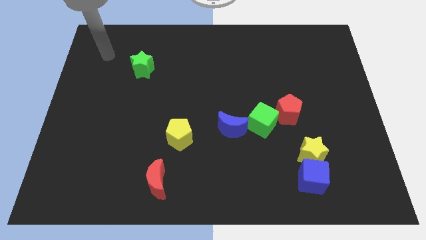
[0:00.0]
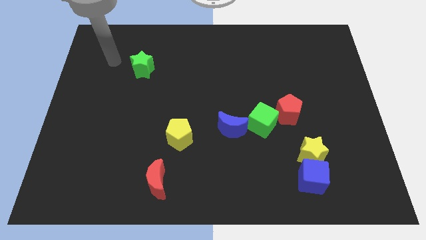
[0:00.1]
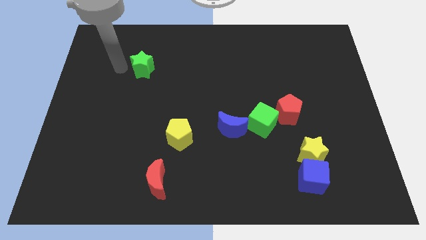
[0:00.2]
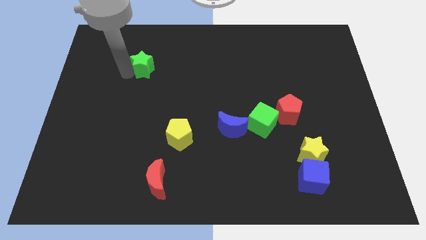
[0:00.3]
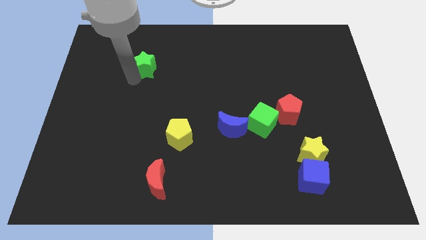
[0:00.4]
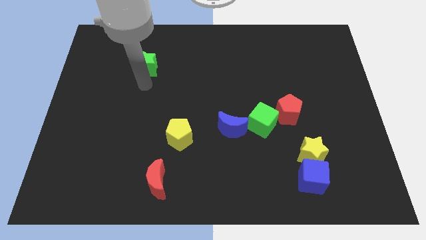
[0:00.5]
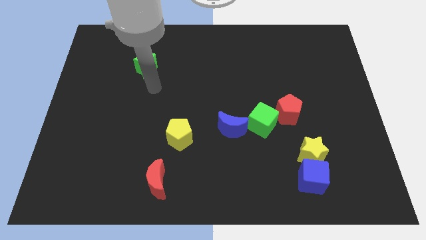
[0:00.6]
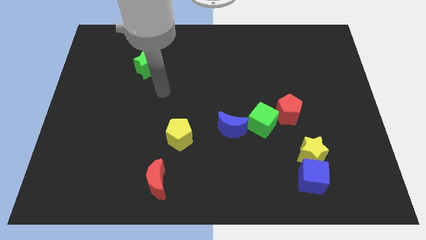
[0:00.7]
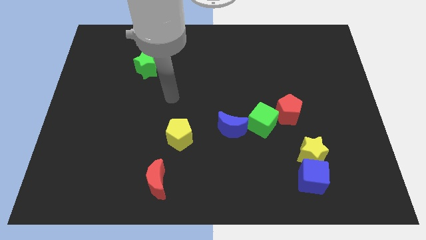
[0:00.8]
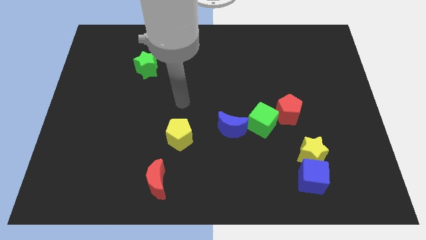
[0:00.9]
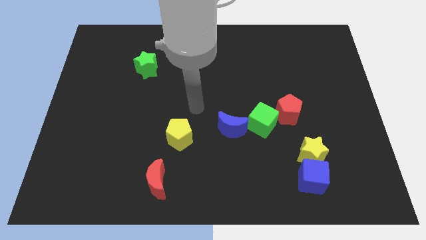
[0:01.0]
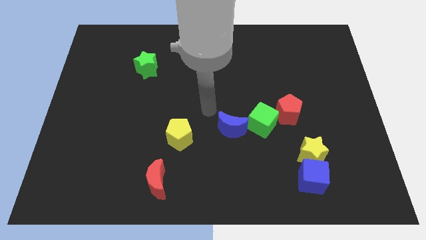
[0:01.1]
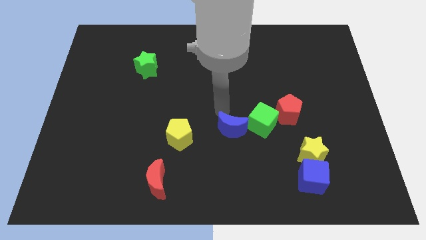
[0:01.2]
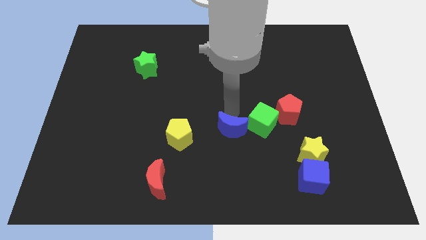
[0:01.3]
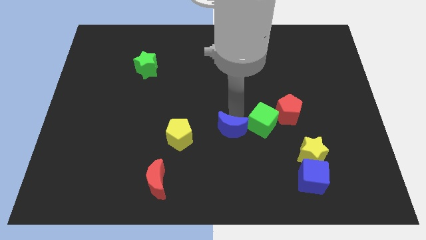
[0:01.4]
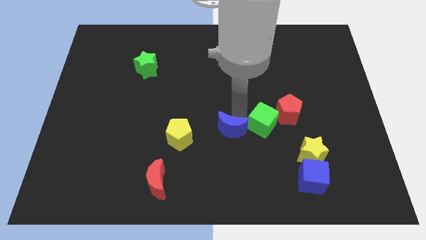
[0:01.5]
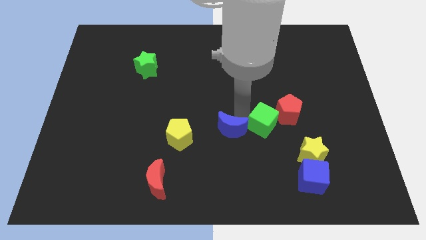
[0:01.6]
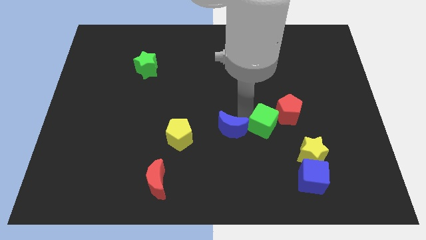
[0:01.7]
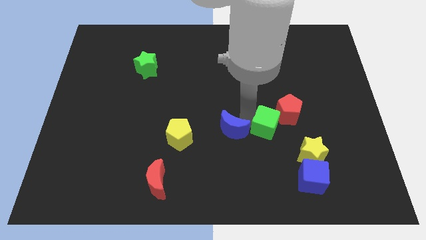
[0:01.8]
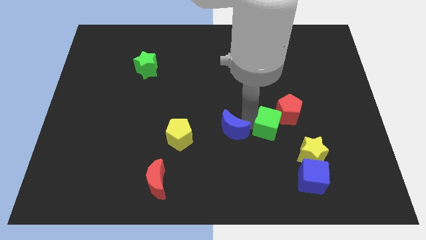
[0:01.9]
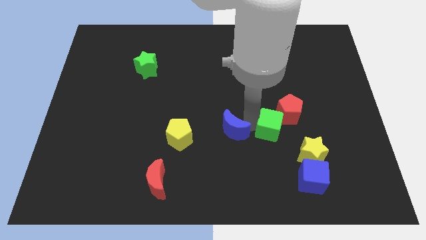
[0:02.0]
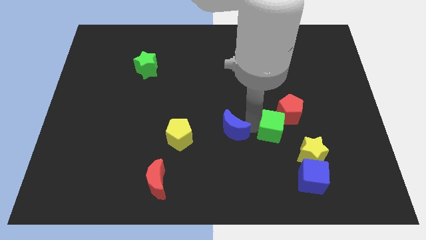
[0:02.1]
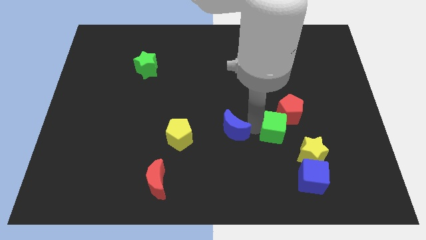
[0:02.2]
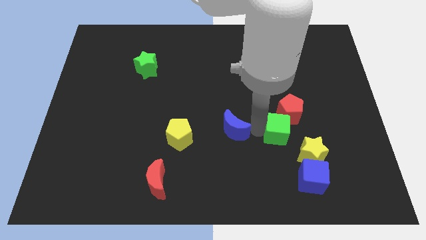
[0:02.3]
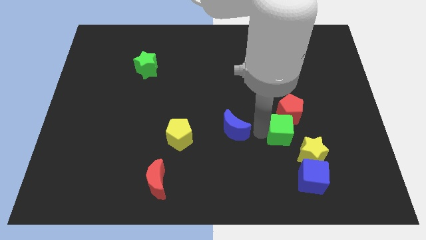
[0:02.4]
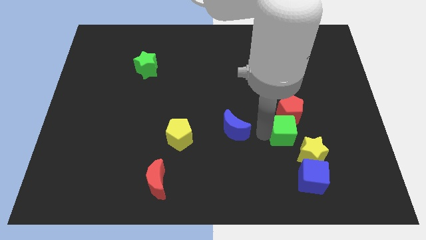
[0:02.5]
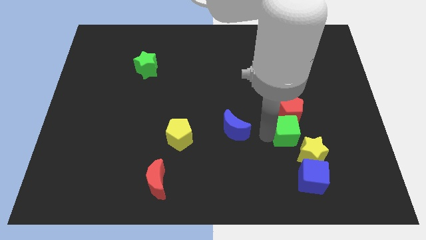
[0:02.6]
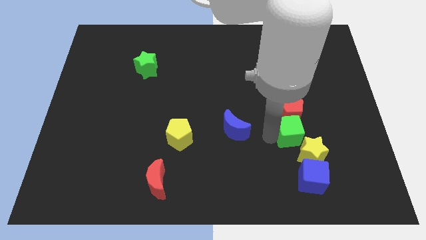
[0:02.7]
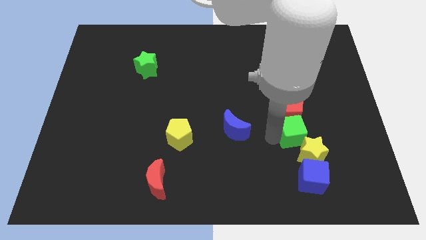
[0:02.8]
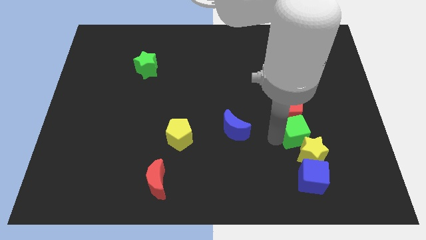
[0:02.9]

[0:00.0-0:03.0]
slightly move the green cube down and right diagonally

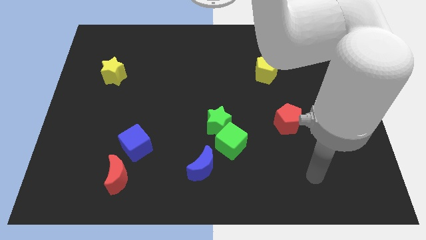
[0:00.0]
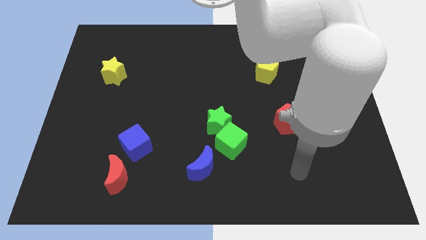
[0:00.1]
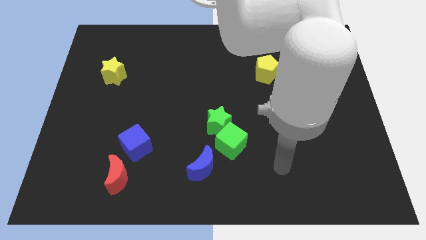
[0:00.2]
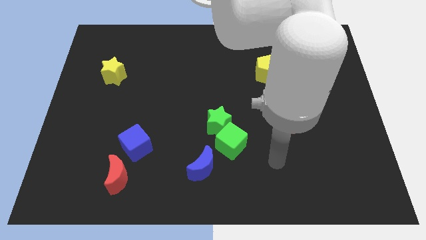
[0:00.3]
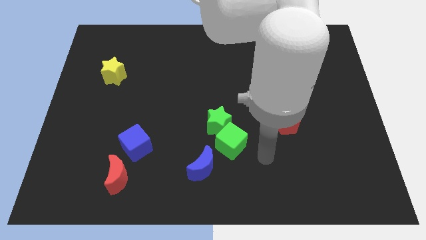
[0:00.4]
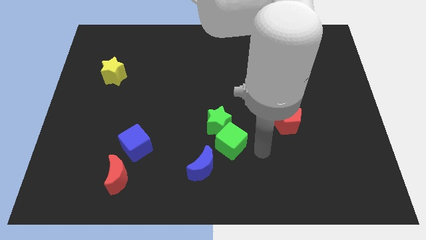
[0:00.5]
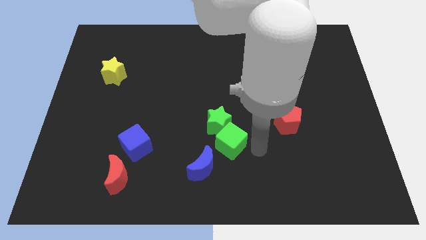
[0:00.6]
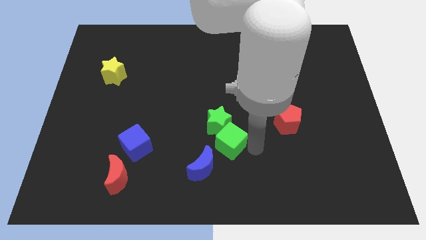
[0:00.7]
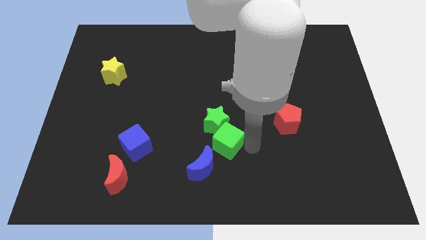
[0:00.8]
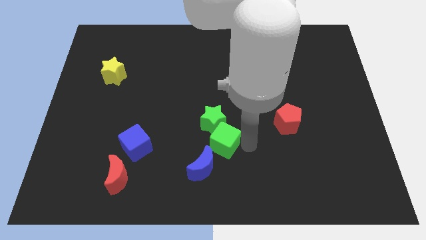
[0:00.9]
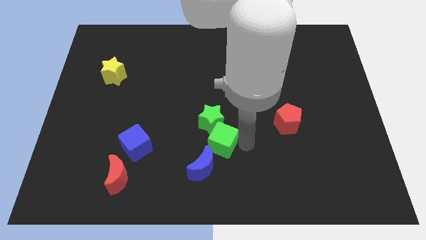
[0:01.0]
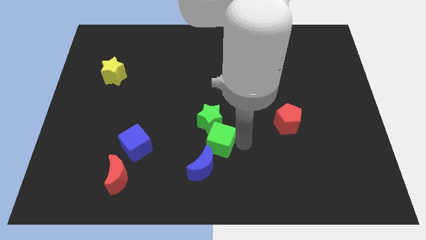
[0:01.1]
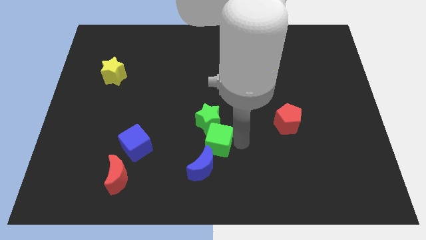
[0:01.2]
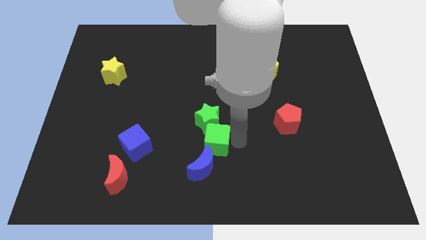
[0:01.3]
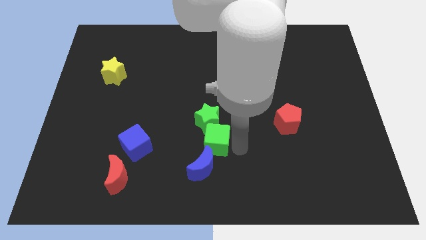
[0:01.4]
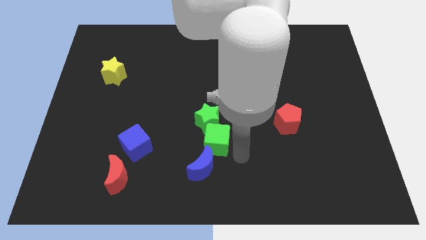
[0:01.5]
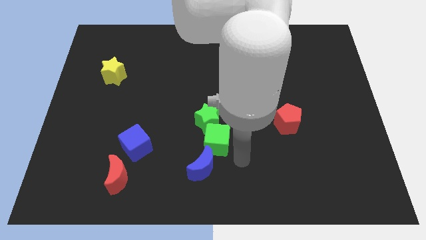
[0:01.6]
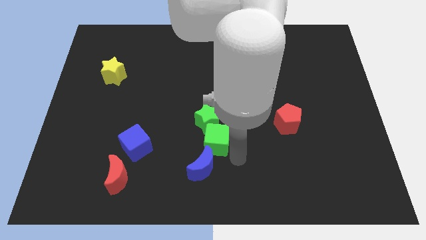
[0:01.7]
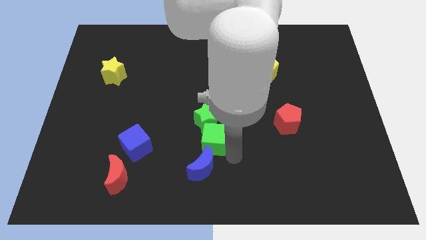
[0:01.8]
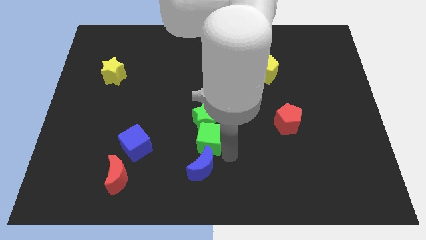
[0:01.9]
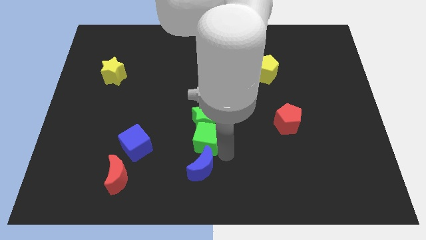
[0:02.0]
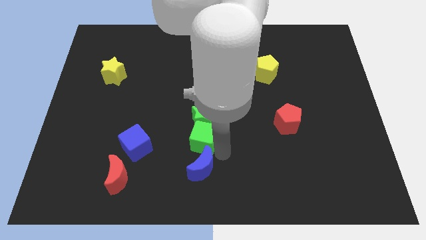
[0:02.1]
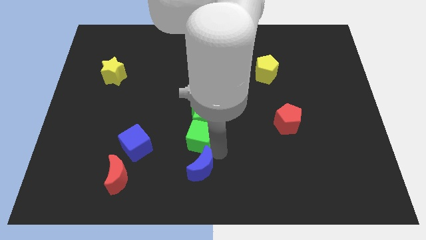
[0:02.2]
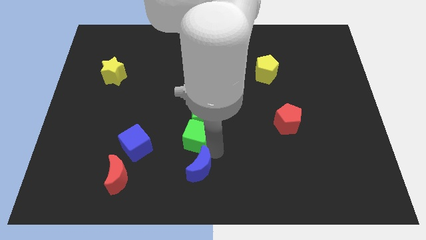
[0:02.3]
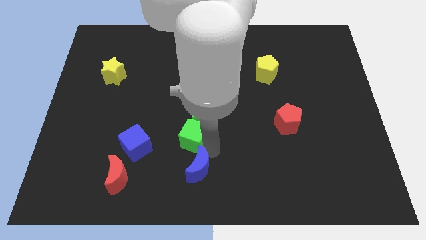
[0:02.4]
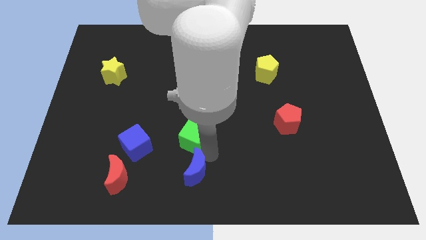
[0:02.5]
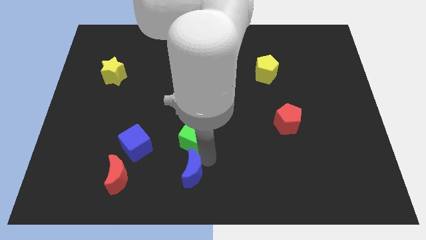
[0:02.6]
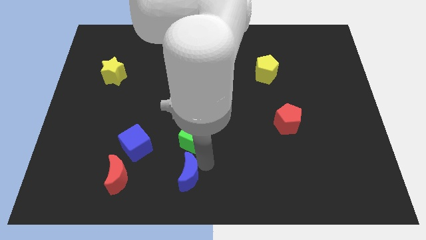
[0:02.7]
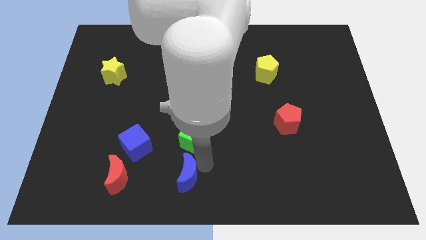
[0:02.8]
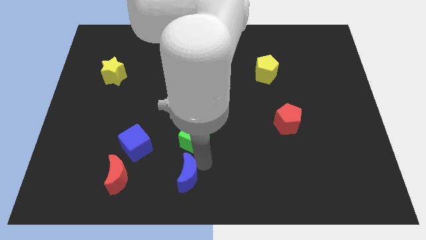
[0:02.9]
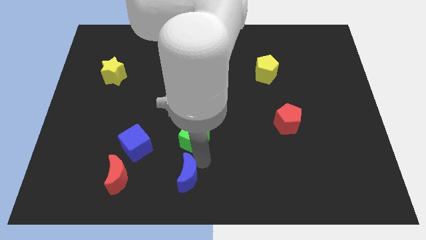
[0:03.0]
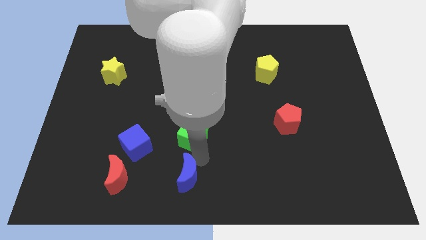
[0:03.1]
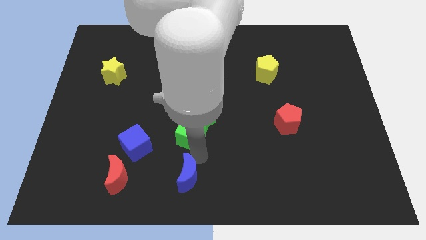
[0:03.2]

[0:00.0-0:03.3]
move the green cube up and to the left a little bit

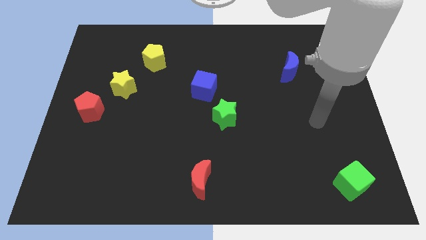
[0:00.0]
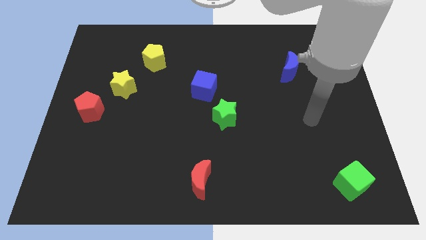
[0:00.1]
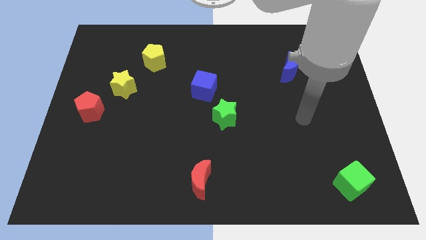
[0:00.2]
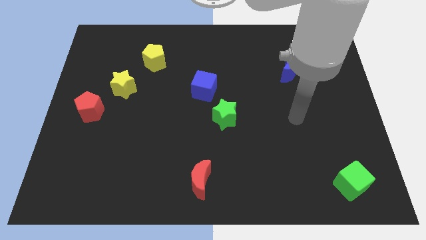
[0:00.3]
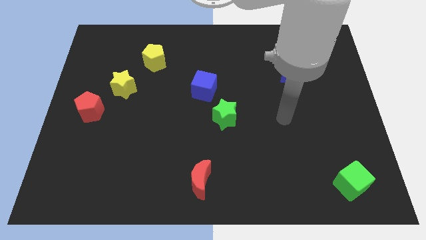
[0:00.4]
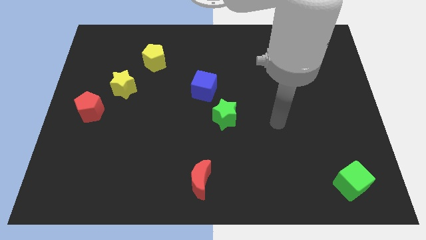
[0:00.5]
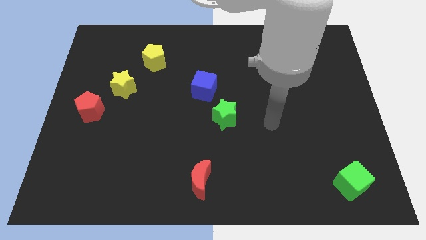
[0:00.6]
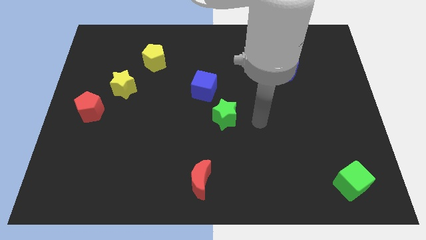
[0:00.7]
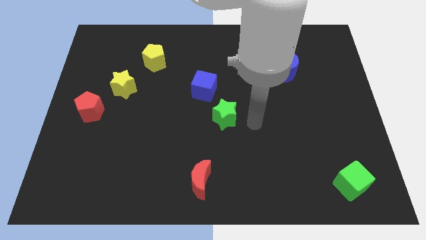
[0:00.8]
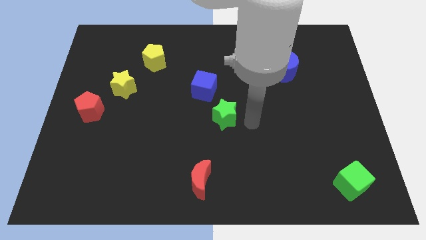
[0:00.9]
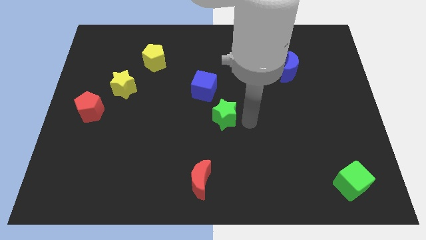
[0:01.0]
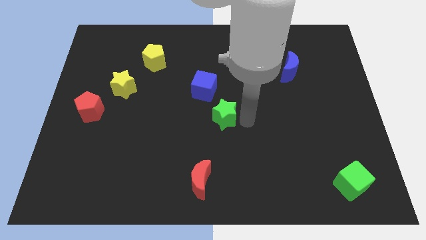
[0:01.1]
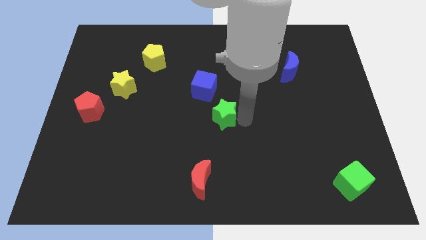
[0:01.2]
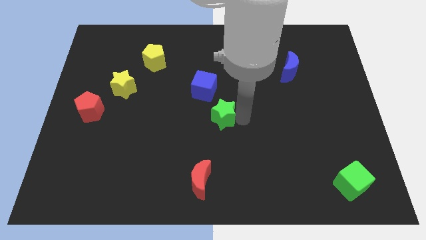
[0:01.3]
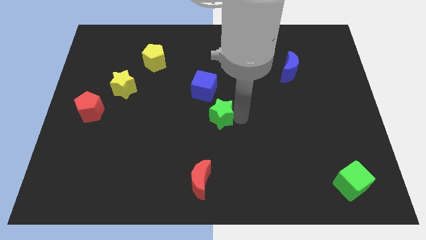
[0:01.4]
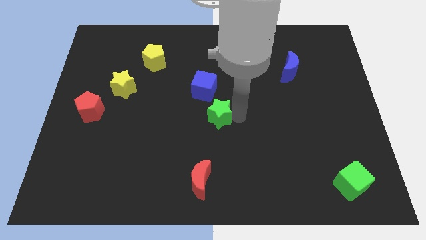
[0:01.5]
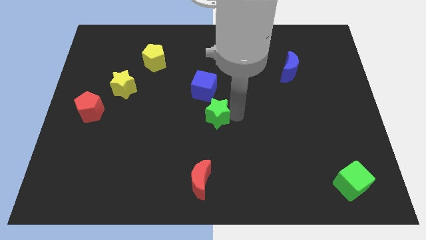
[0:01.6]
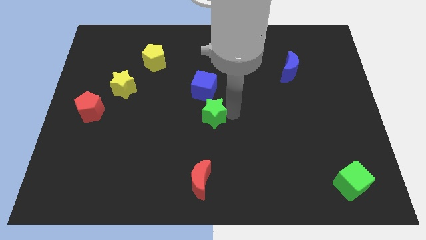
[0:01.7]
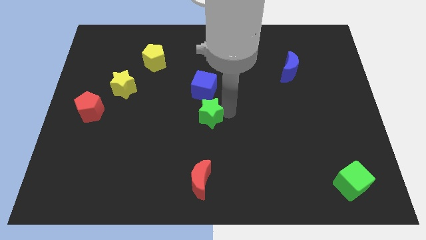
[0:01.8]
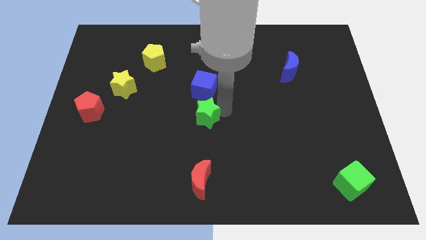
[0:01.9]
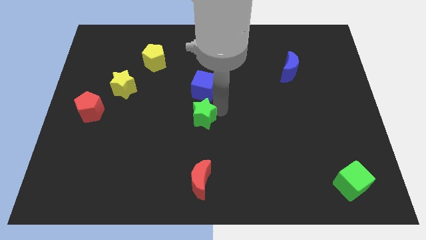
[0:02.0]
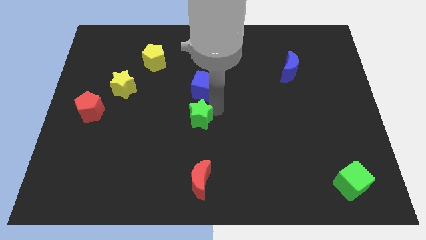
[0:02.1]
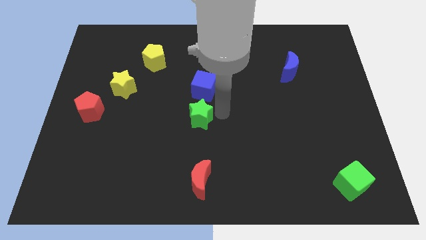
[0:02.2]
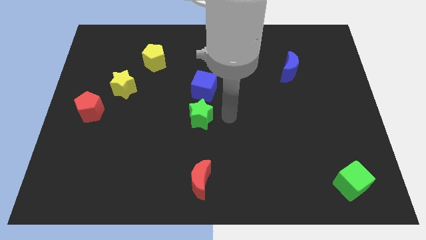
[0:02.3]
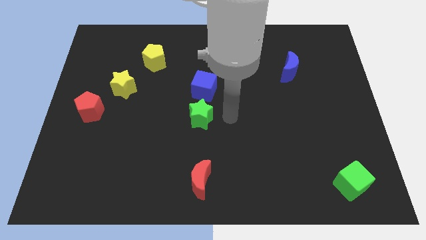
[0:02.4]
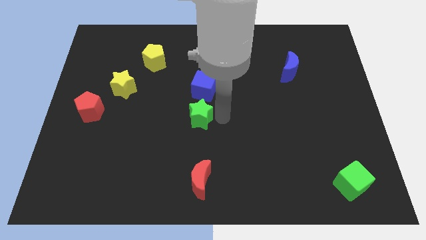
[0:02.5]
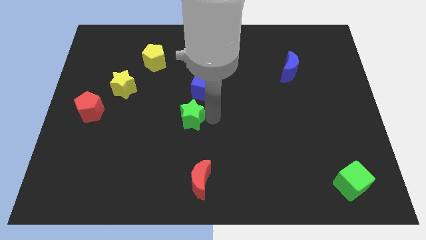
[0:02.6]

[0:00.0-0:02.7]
slightly move the green star left
